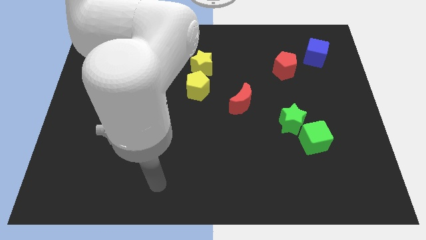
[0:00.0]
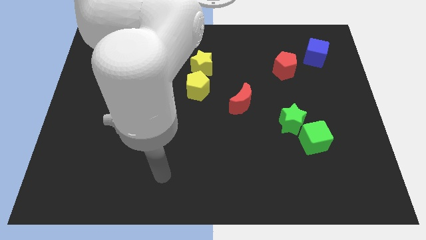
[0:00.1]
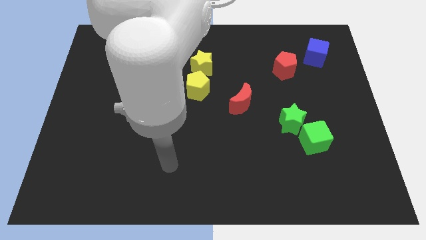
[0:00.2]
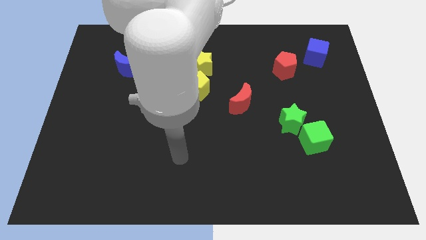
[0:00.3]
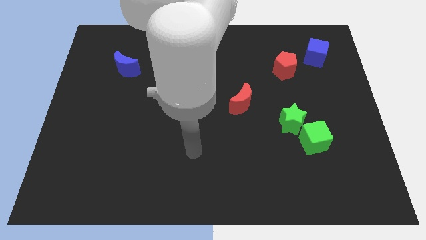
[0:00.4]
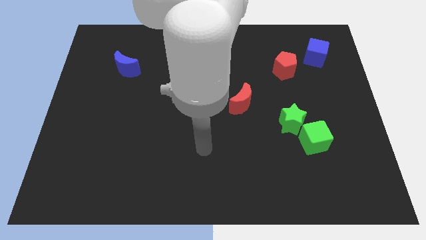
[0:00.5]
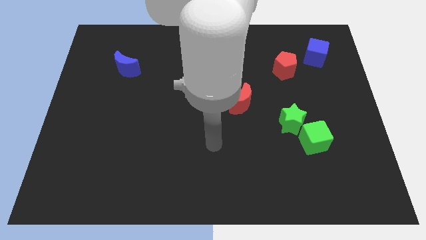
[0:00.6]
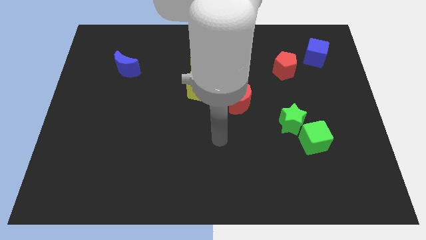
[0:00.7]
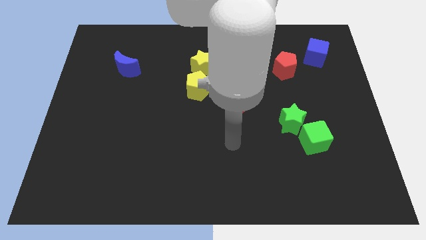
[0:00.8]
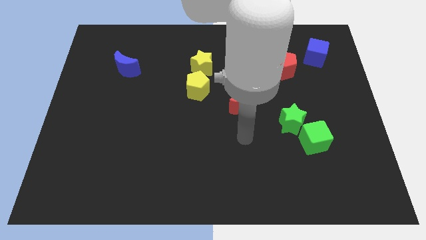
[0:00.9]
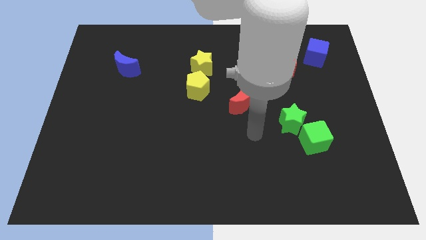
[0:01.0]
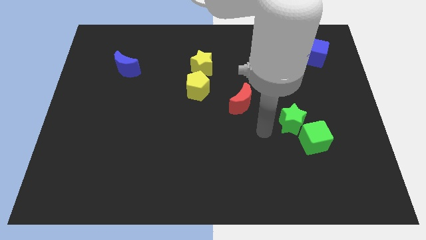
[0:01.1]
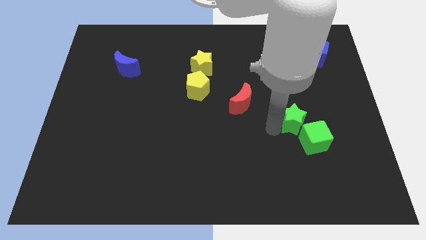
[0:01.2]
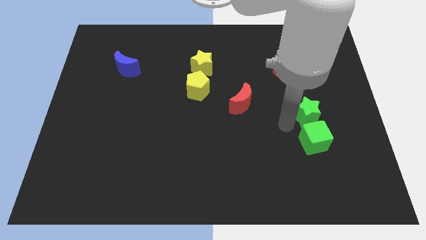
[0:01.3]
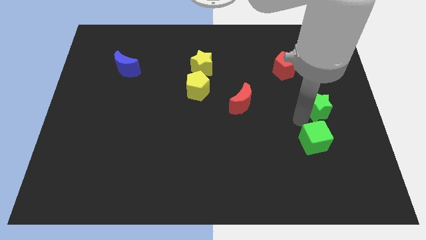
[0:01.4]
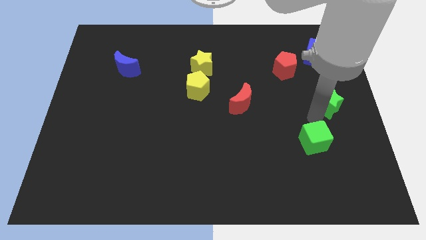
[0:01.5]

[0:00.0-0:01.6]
separate the green cube from the green star

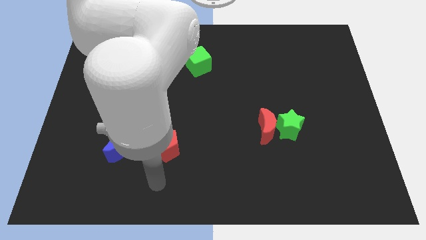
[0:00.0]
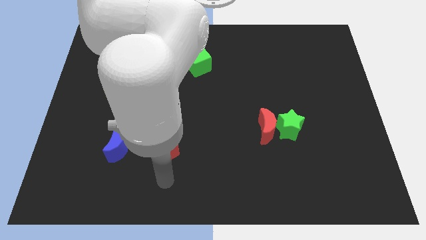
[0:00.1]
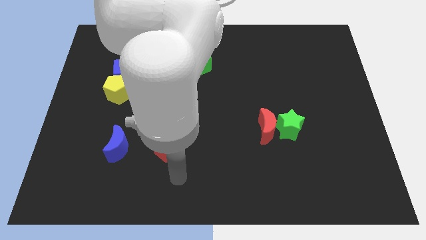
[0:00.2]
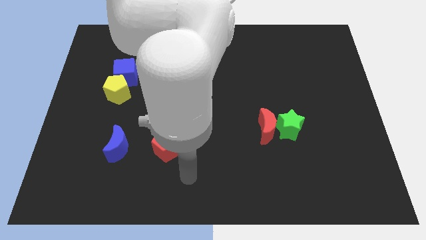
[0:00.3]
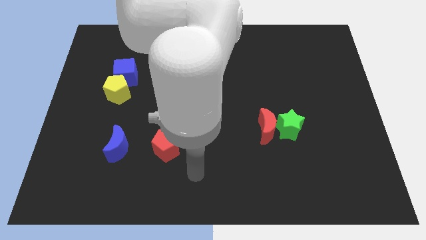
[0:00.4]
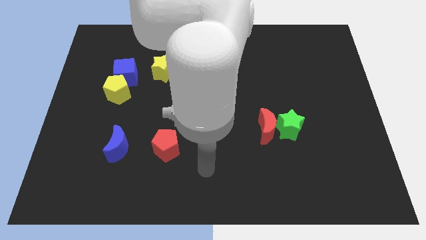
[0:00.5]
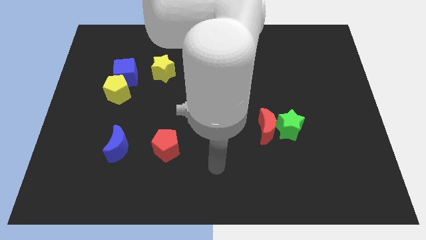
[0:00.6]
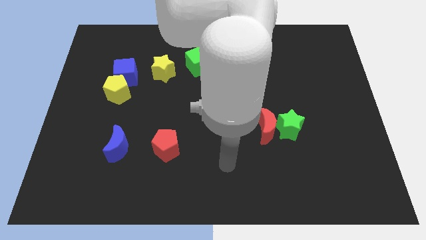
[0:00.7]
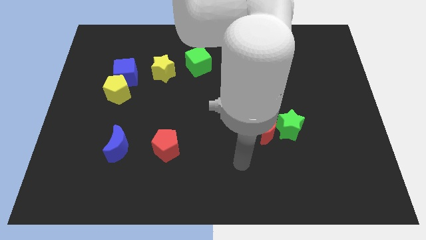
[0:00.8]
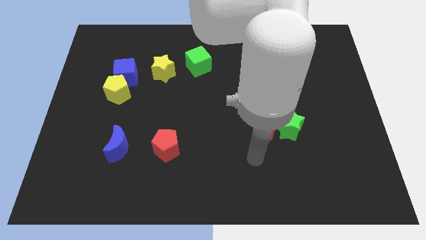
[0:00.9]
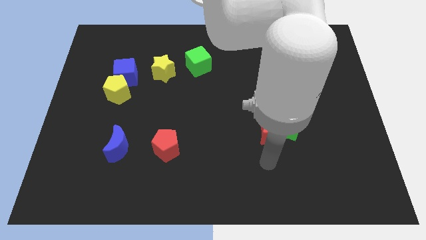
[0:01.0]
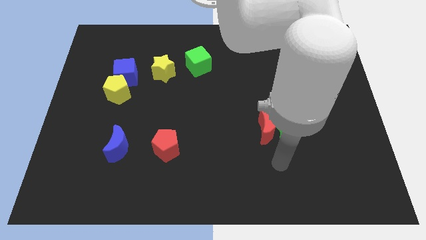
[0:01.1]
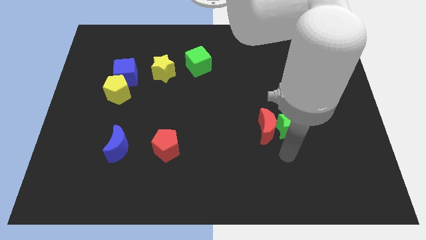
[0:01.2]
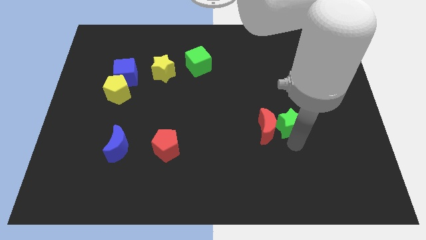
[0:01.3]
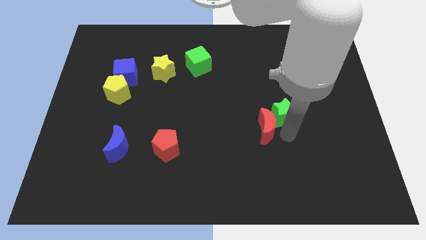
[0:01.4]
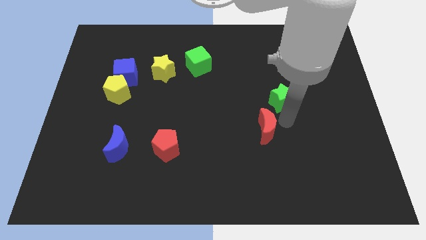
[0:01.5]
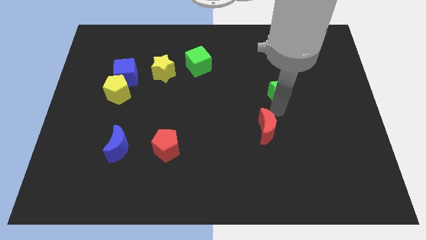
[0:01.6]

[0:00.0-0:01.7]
pull the red moon apart from the green star

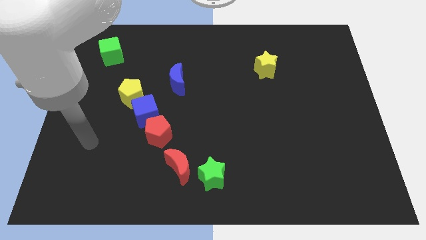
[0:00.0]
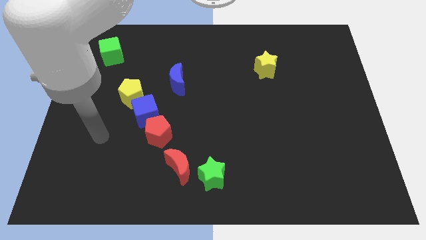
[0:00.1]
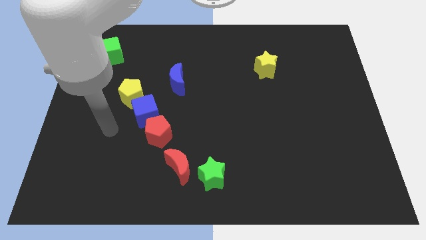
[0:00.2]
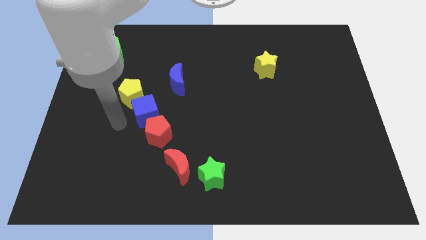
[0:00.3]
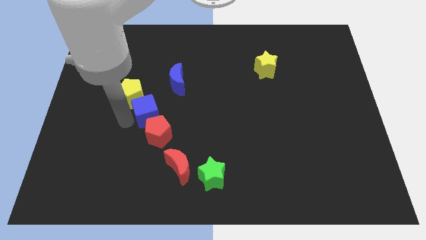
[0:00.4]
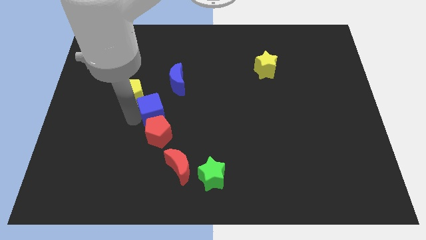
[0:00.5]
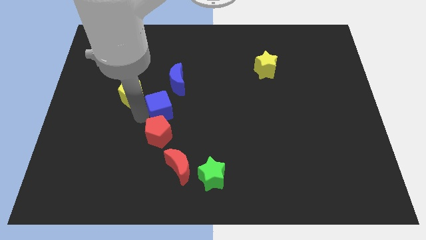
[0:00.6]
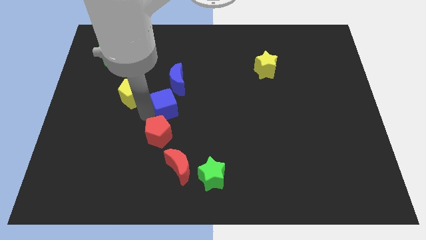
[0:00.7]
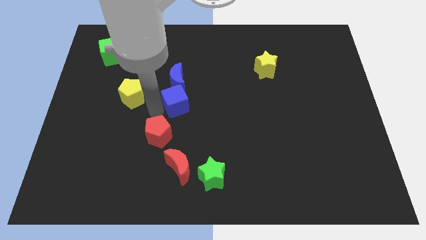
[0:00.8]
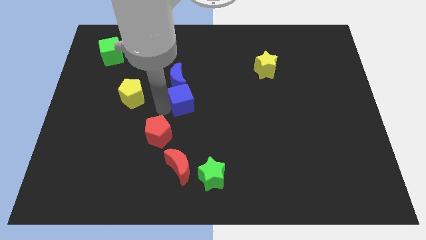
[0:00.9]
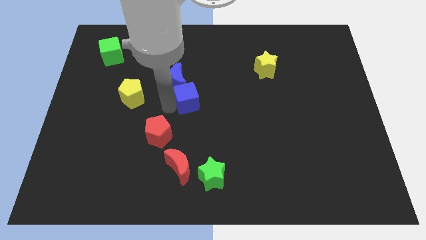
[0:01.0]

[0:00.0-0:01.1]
separate the blue cube from the red pentagon and yellow pentagon

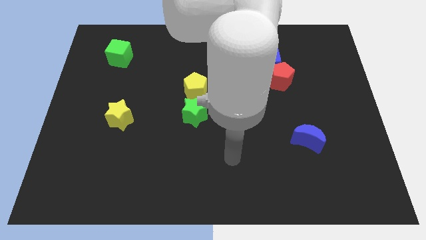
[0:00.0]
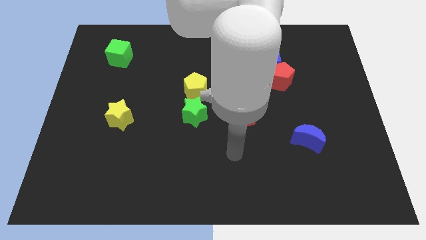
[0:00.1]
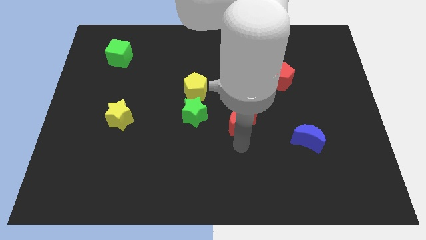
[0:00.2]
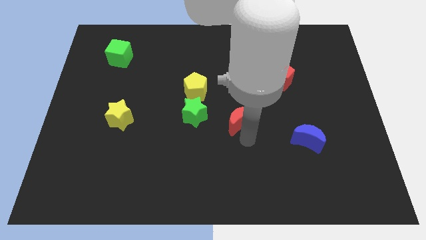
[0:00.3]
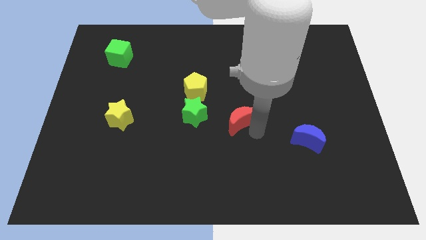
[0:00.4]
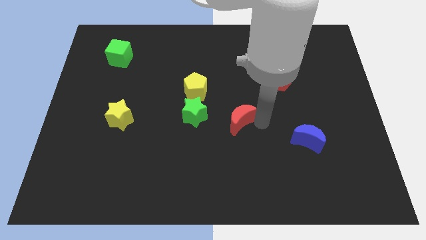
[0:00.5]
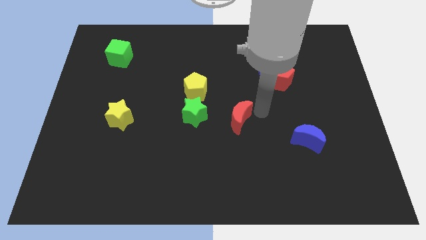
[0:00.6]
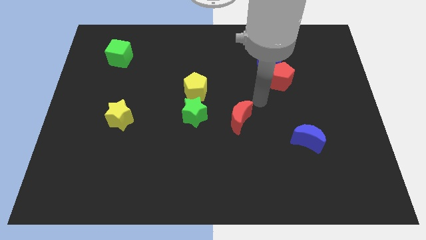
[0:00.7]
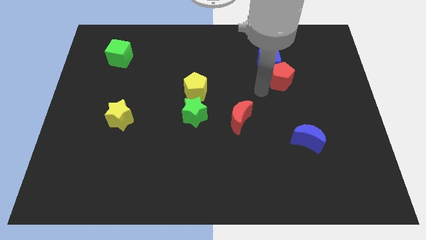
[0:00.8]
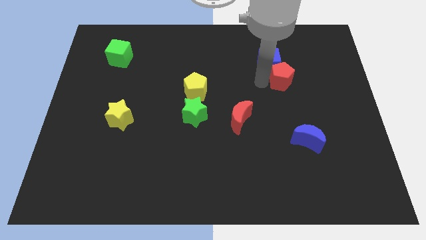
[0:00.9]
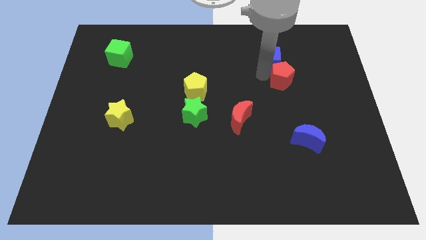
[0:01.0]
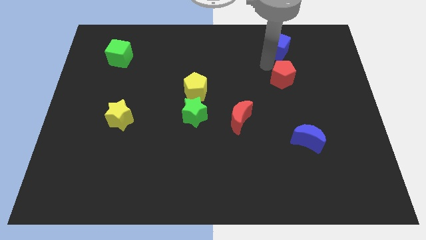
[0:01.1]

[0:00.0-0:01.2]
pull the red pentagon apart from the blue cube

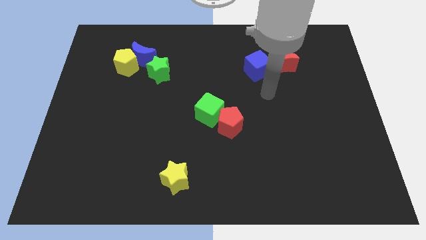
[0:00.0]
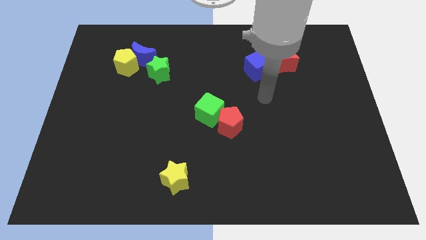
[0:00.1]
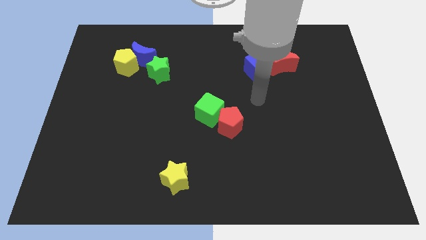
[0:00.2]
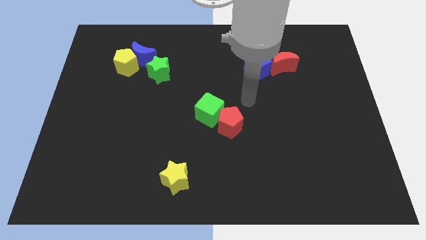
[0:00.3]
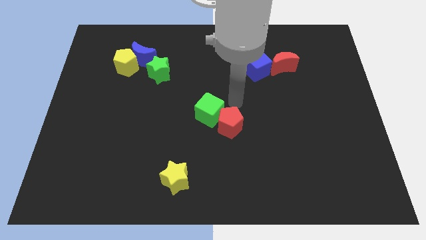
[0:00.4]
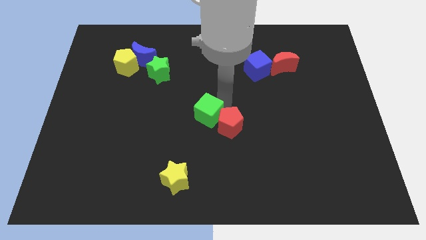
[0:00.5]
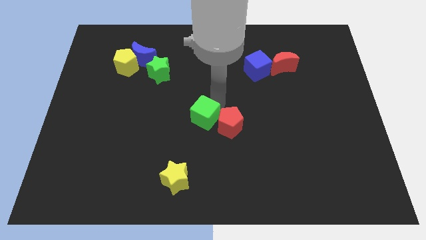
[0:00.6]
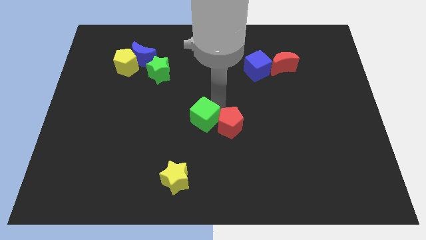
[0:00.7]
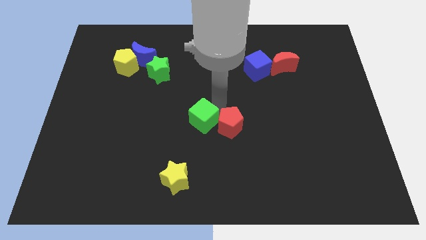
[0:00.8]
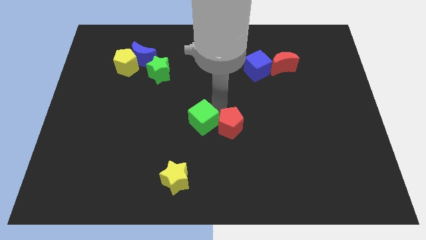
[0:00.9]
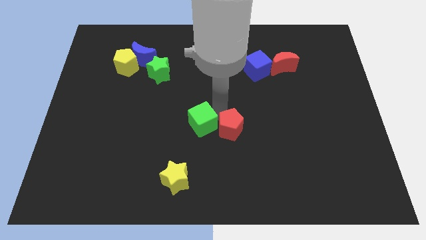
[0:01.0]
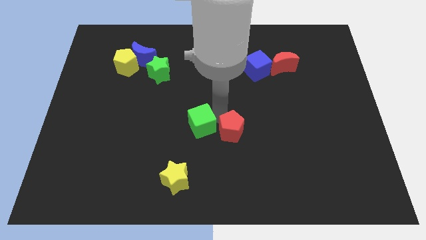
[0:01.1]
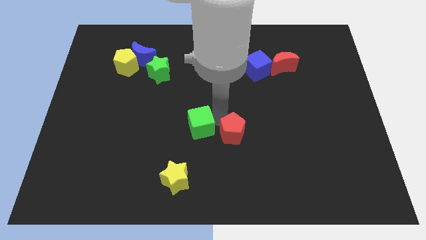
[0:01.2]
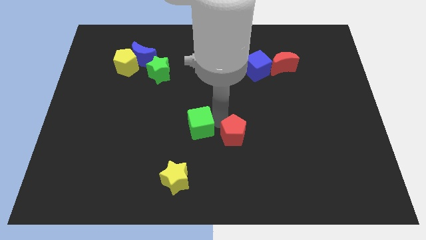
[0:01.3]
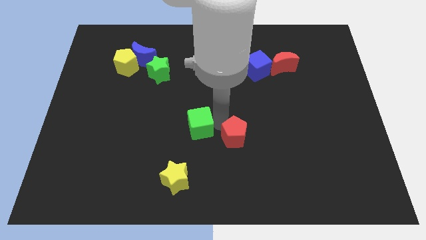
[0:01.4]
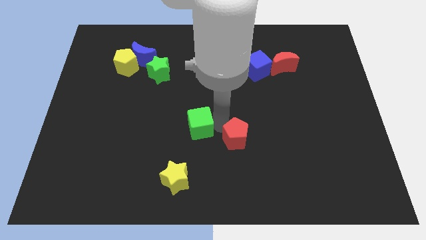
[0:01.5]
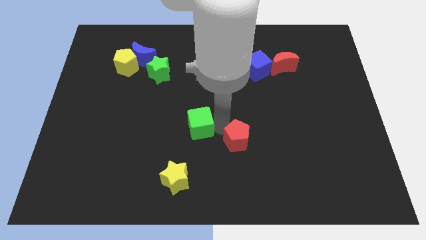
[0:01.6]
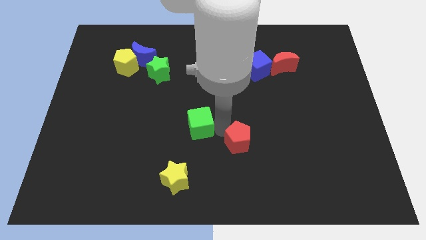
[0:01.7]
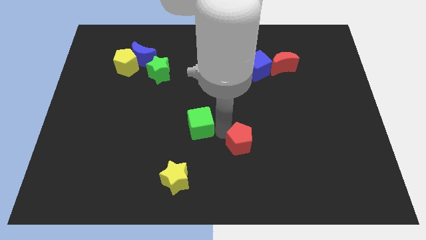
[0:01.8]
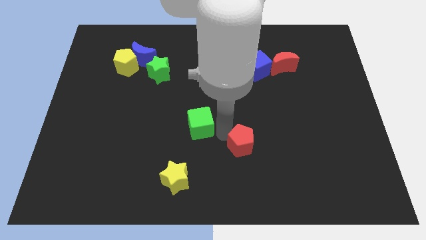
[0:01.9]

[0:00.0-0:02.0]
pull the red pentagon apart from the green cube

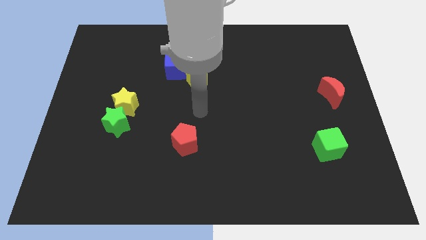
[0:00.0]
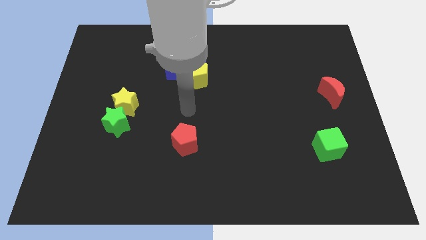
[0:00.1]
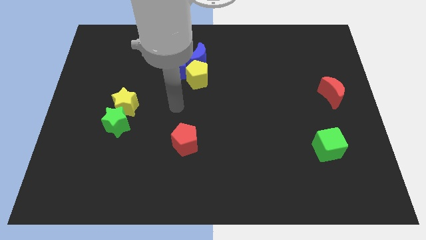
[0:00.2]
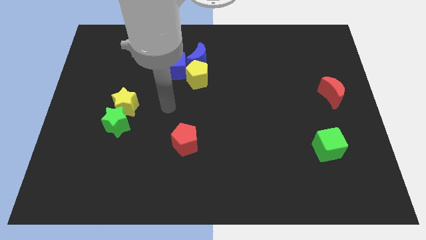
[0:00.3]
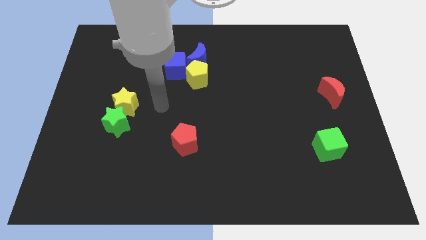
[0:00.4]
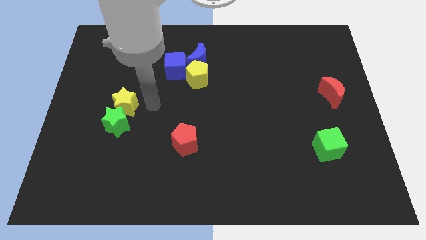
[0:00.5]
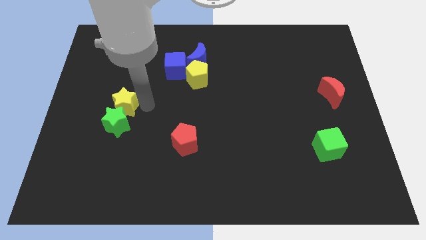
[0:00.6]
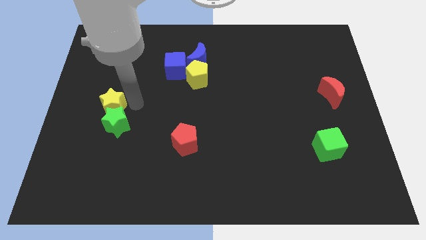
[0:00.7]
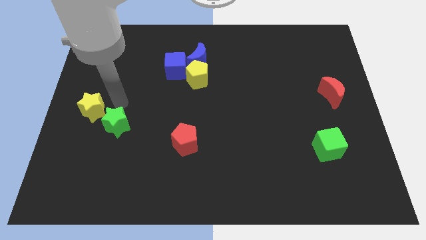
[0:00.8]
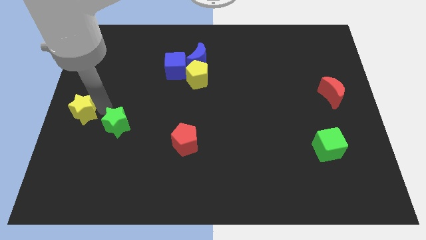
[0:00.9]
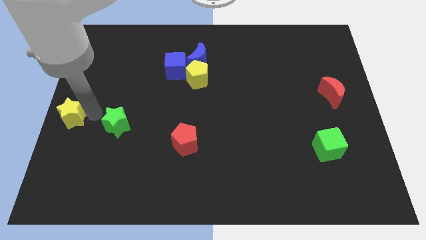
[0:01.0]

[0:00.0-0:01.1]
pull the green star apart from the yellow star

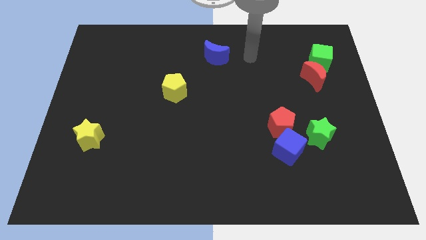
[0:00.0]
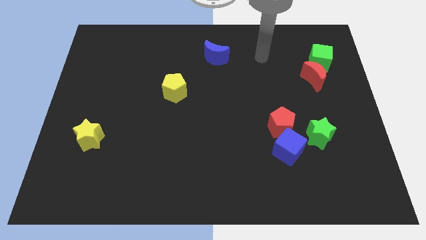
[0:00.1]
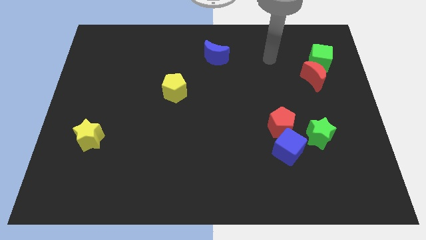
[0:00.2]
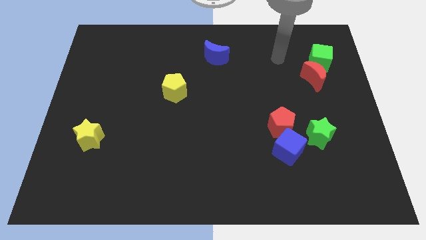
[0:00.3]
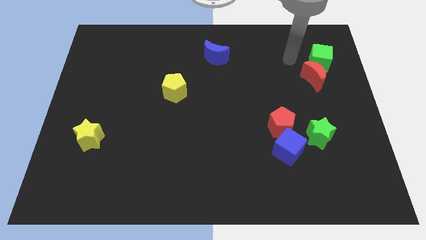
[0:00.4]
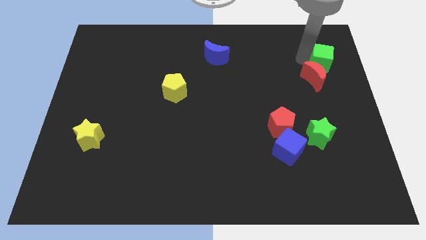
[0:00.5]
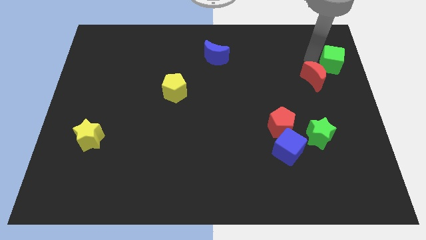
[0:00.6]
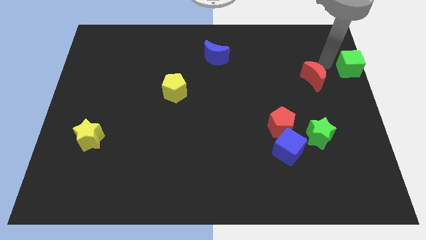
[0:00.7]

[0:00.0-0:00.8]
pull the red moon apart from the green cube

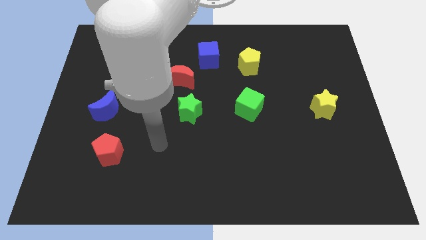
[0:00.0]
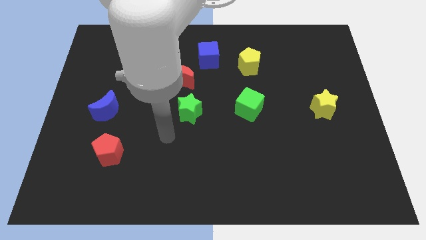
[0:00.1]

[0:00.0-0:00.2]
separate the red moon from the blue cube
